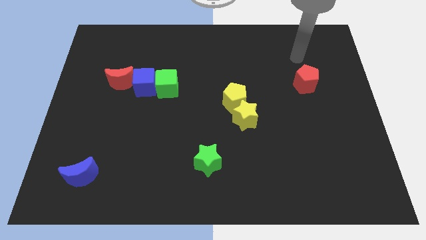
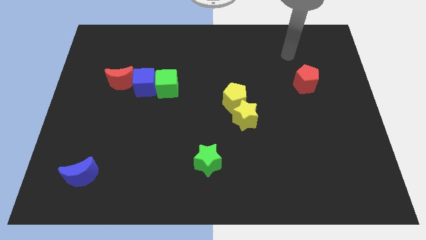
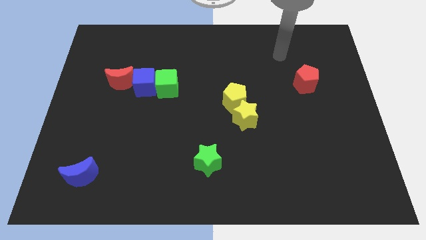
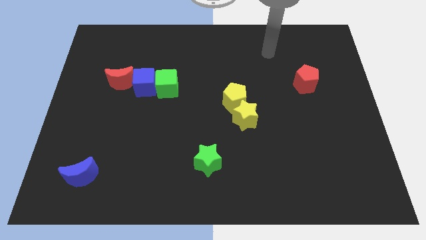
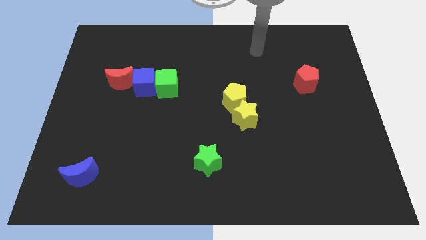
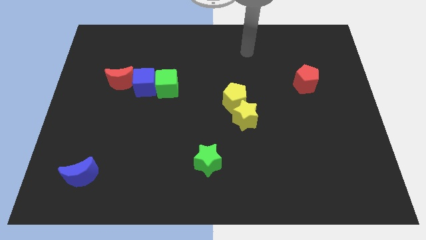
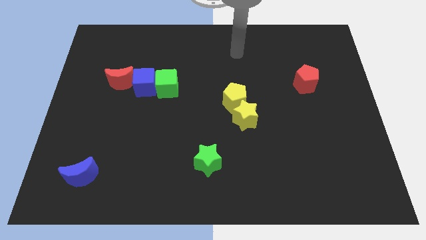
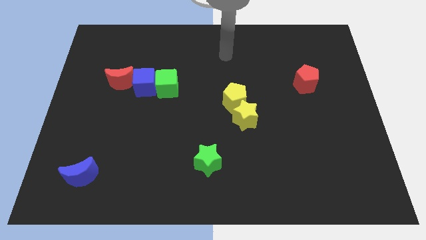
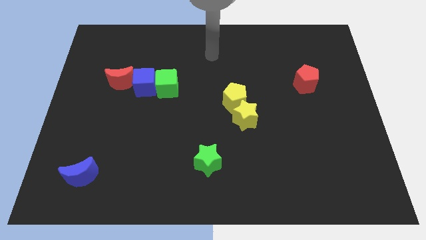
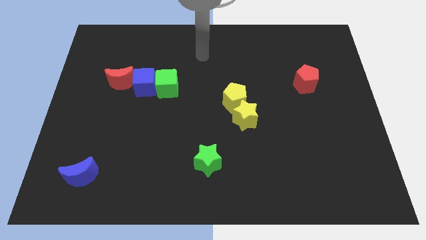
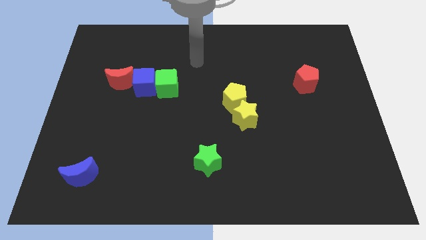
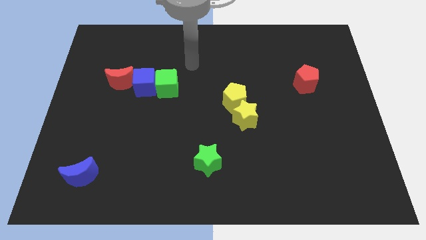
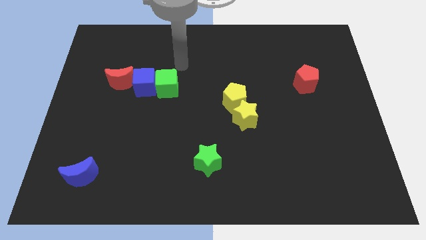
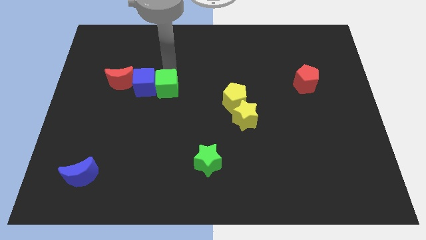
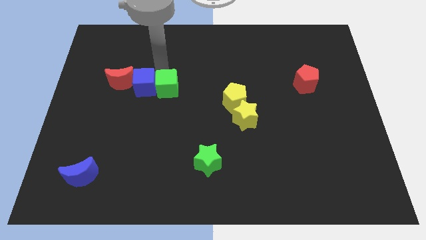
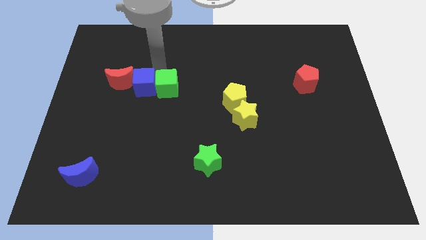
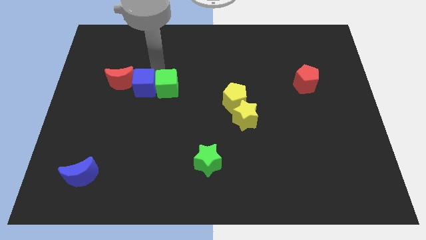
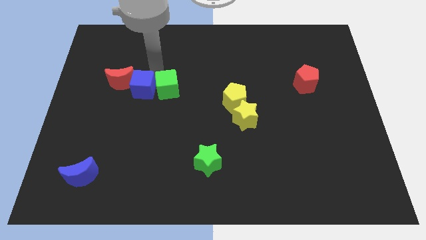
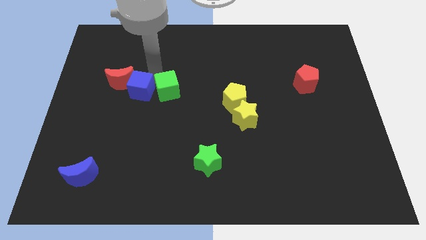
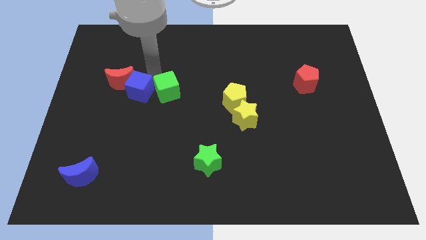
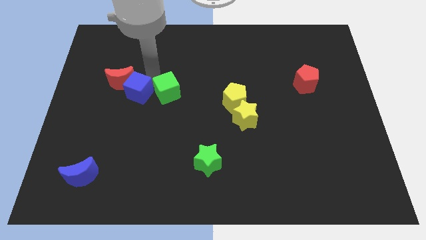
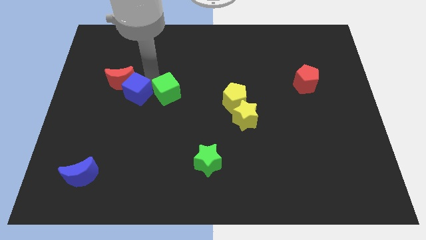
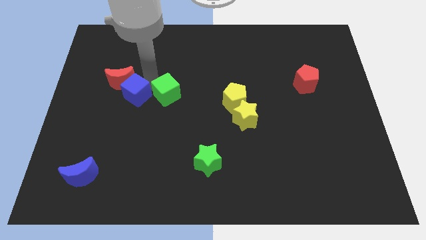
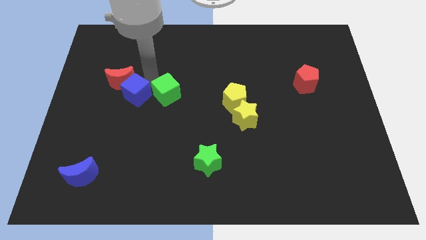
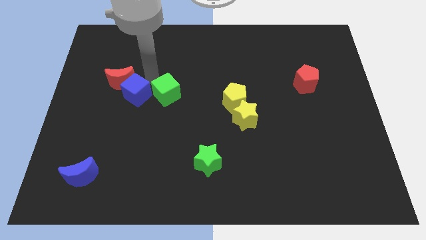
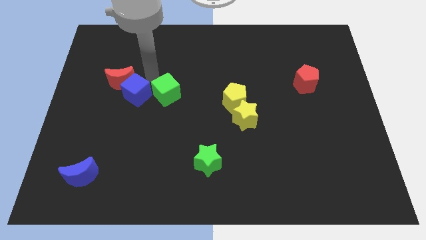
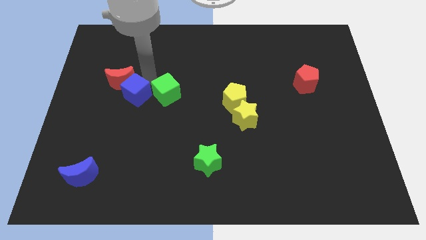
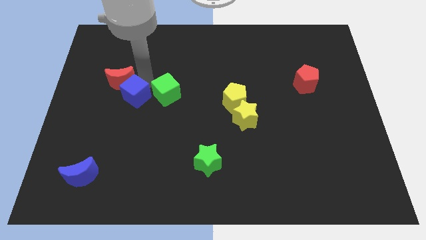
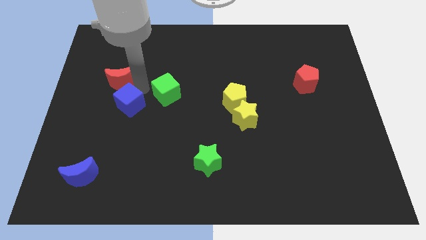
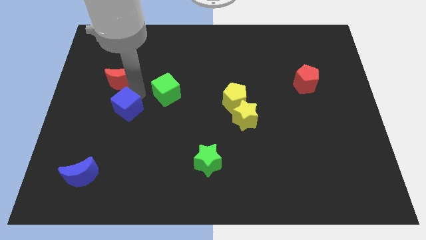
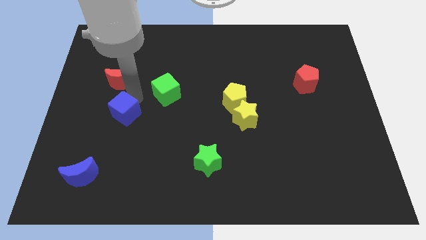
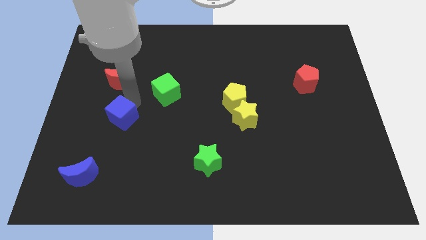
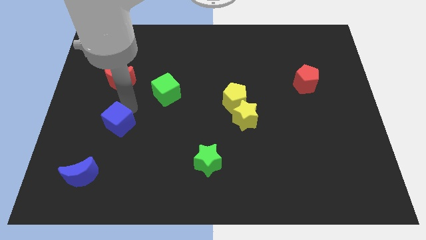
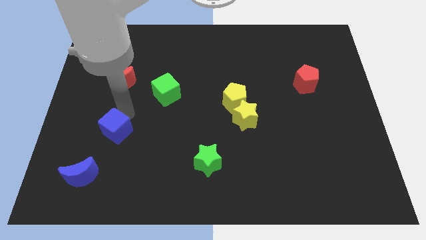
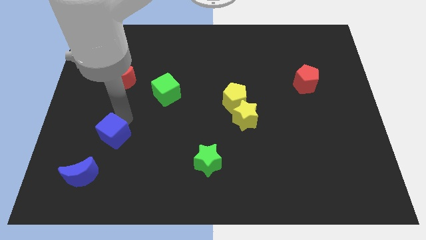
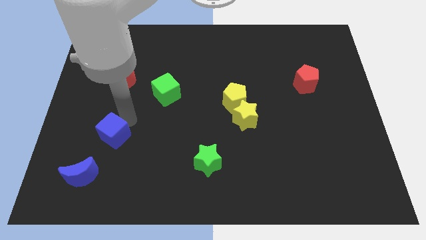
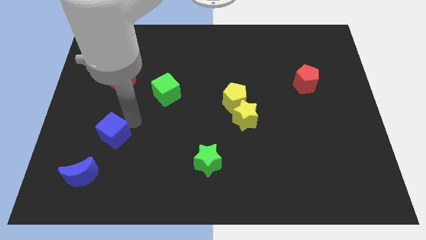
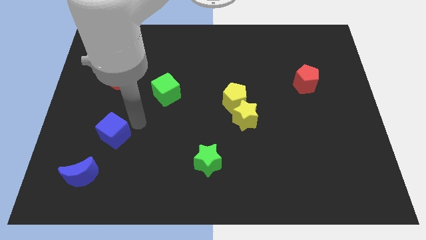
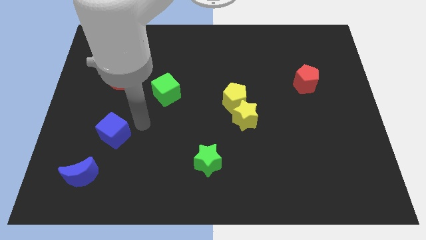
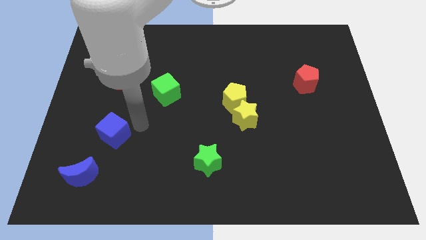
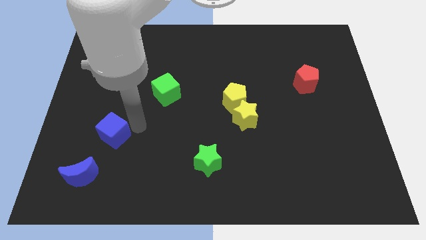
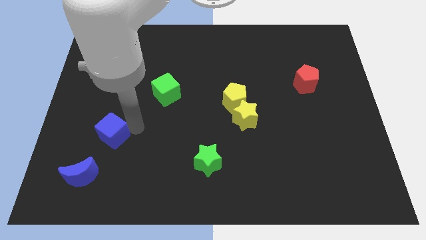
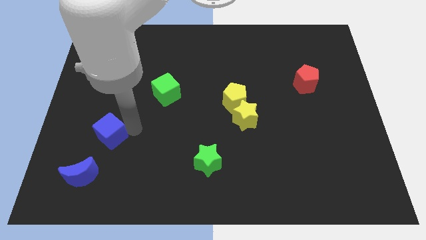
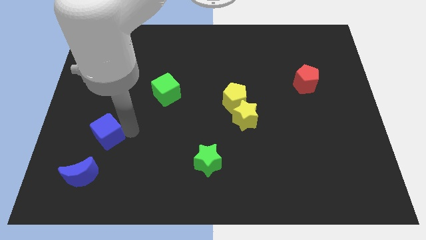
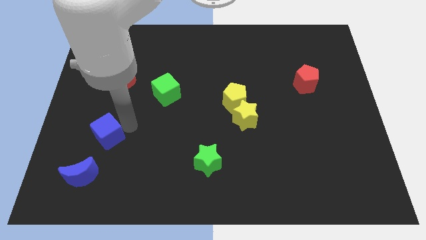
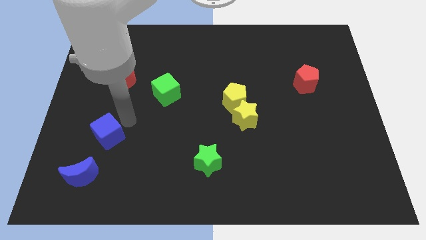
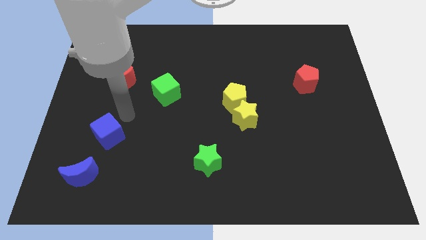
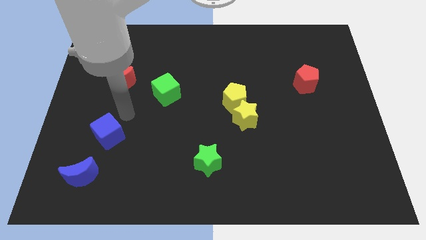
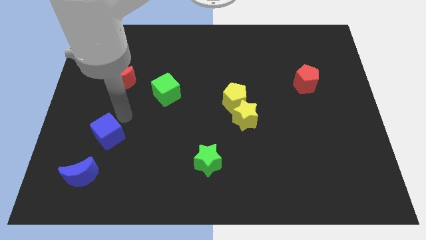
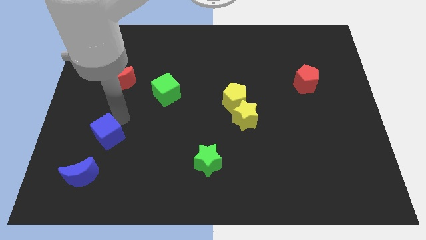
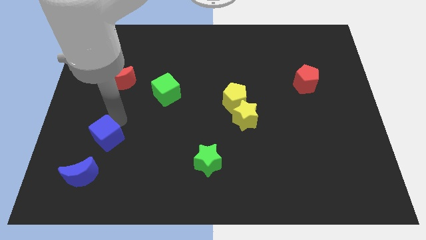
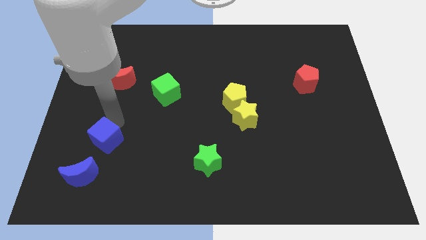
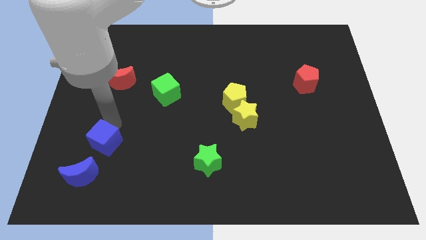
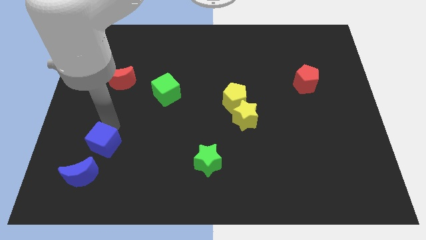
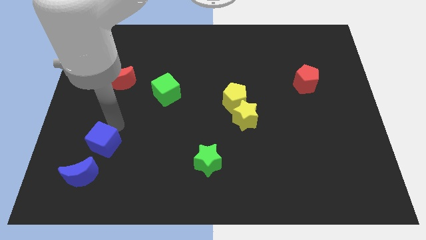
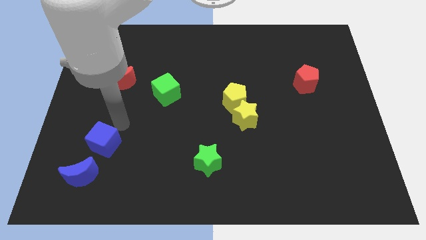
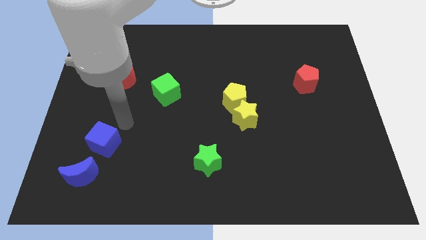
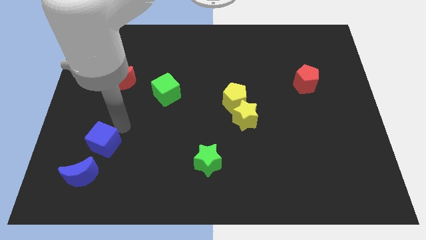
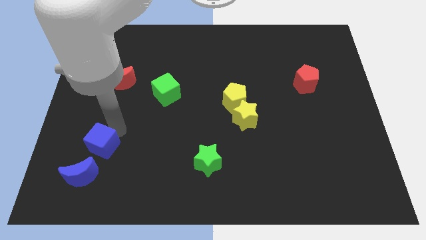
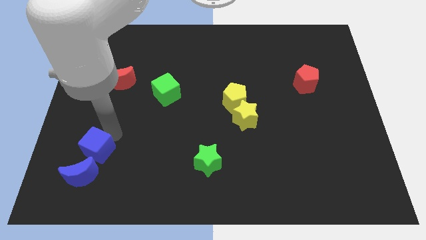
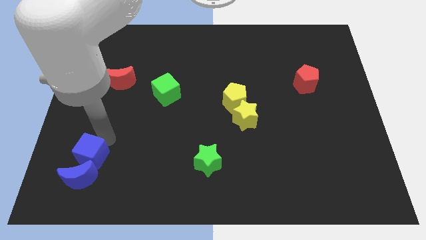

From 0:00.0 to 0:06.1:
push the blue cube close to the blue moon

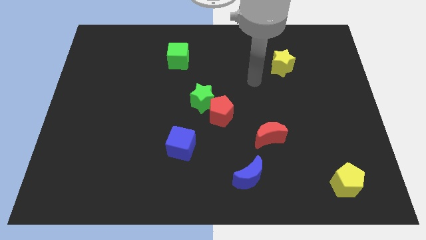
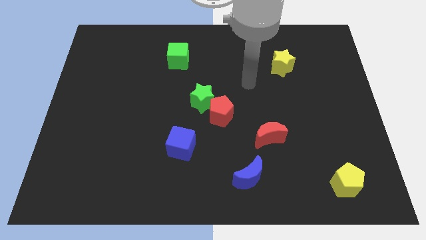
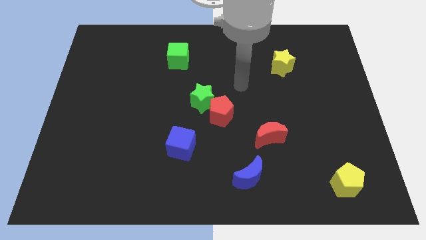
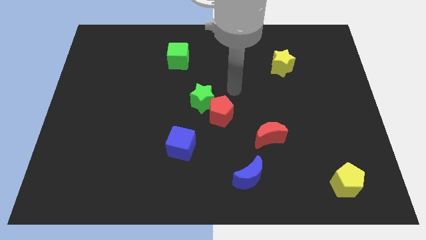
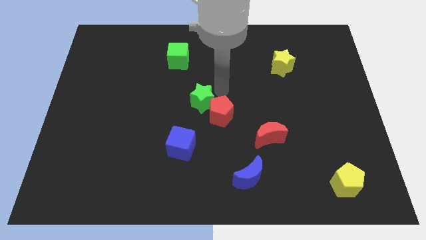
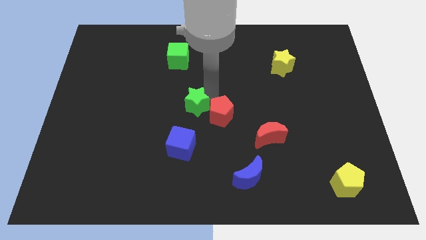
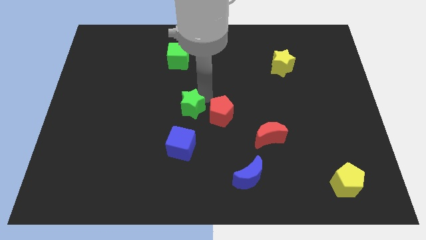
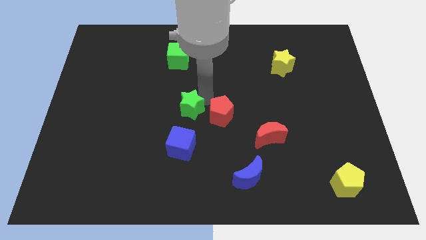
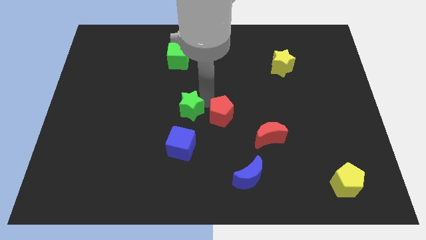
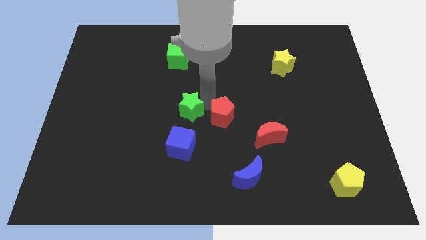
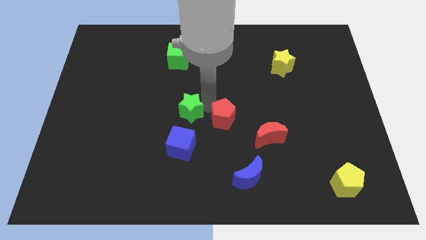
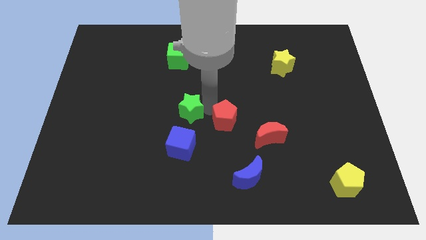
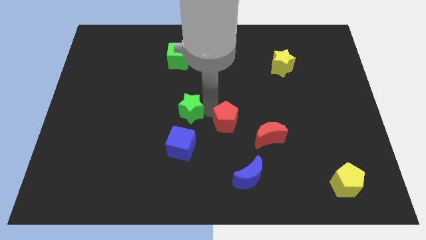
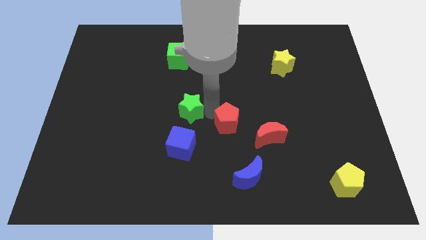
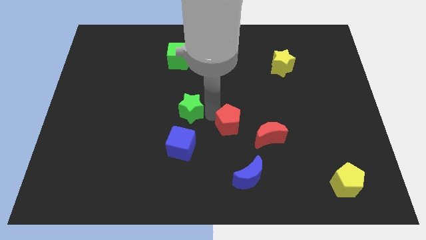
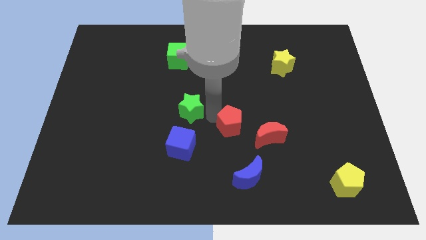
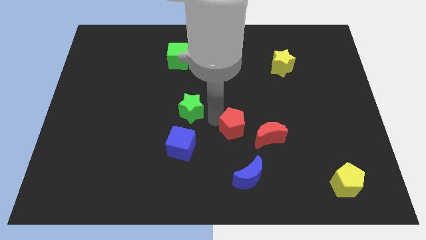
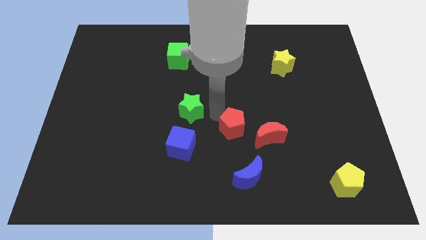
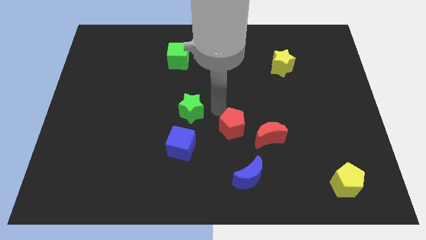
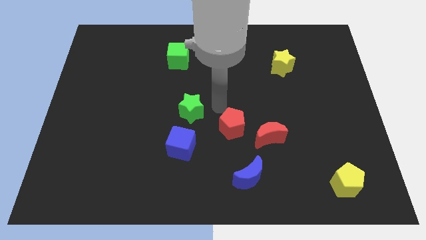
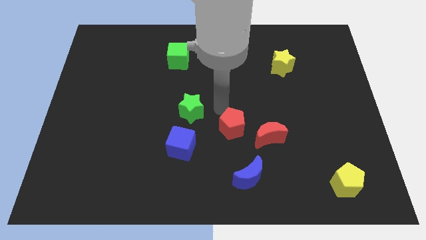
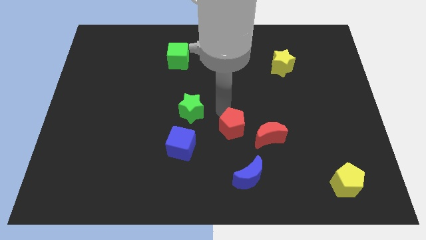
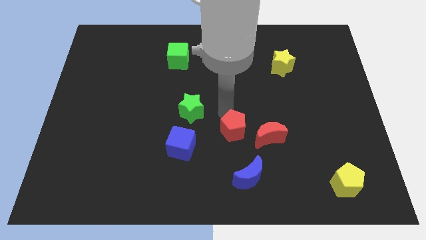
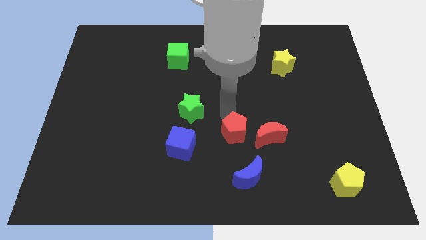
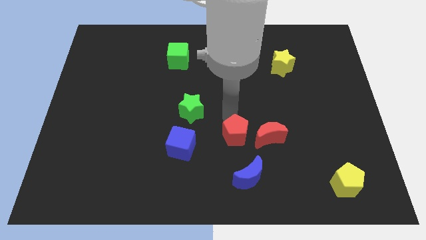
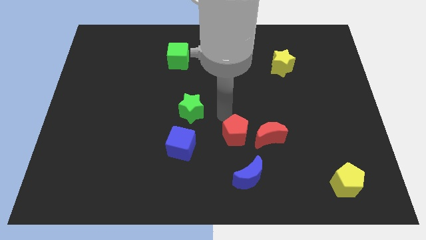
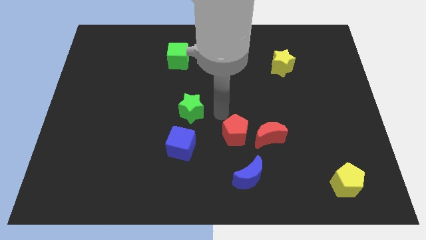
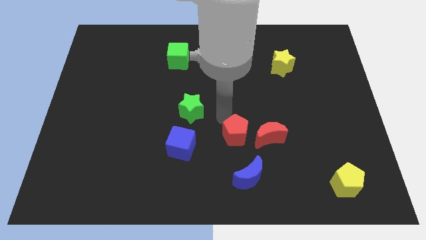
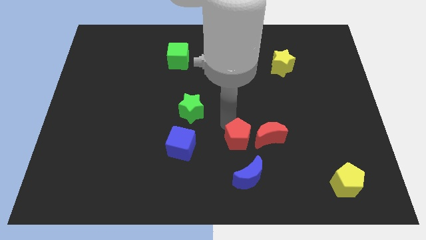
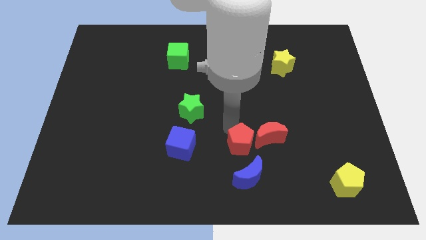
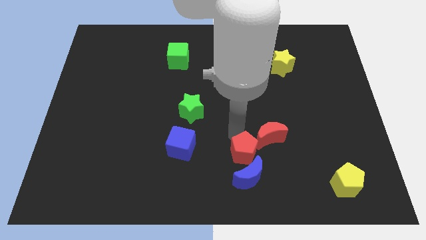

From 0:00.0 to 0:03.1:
push the red pentagon towards the blue moon
